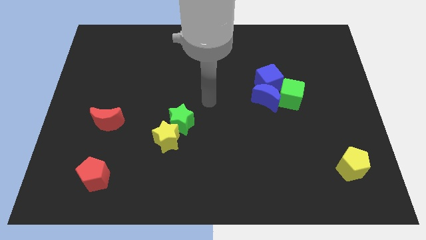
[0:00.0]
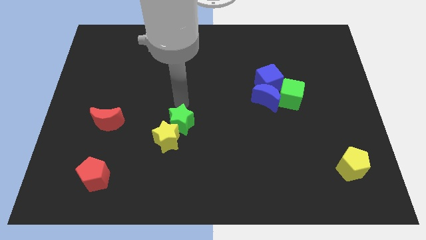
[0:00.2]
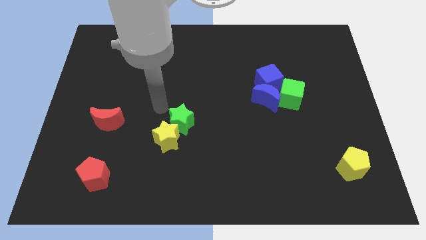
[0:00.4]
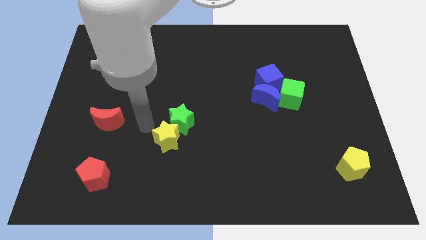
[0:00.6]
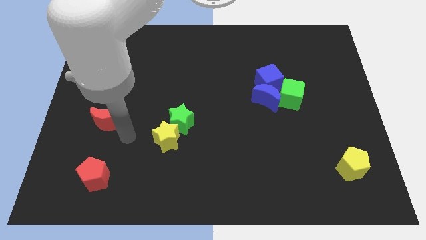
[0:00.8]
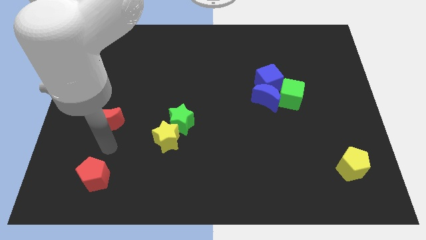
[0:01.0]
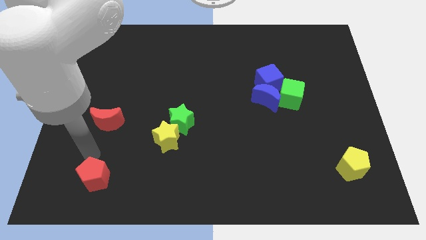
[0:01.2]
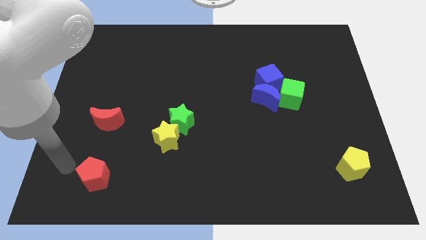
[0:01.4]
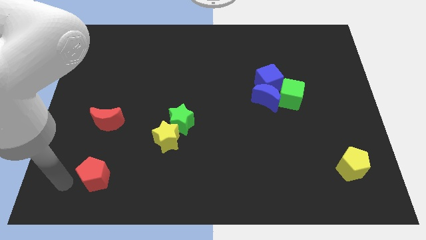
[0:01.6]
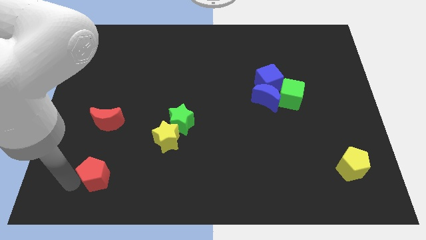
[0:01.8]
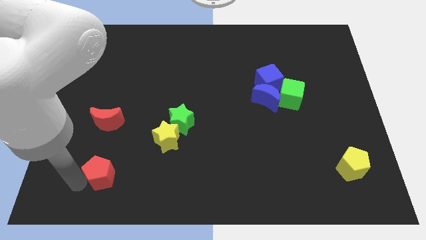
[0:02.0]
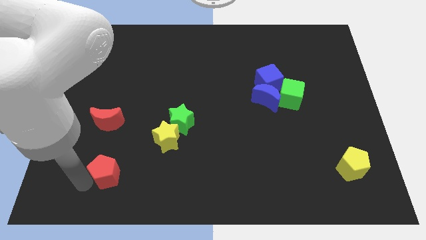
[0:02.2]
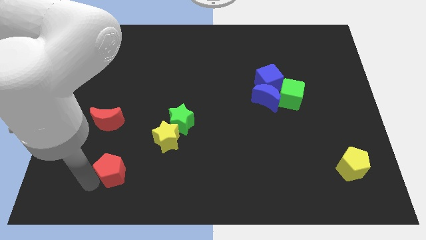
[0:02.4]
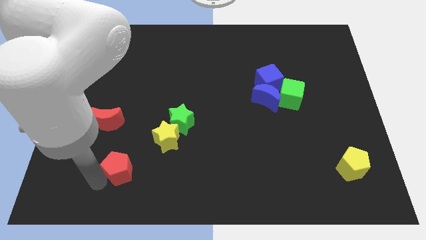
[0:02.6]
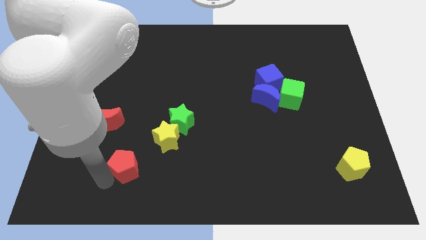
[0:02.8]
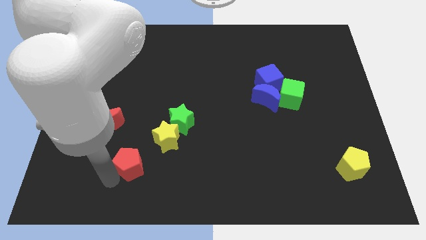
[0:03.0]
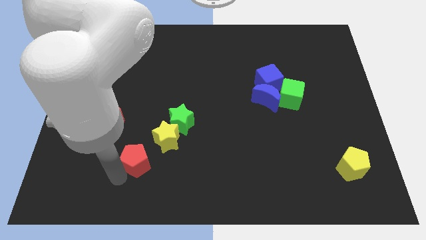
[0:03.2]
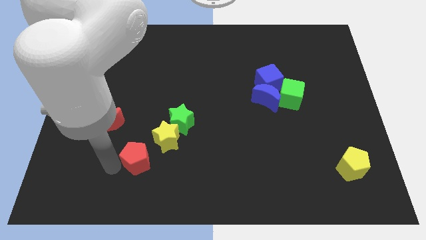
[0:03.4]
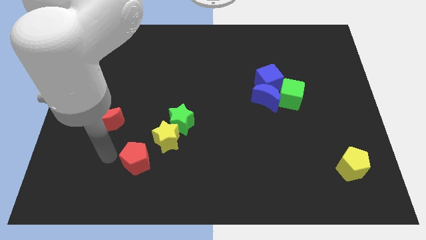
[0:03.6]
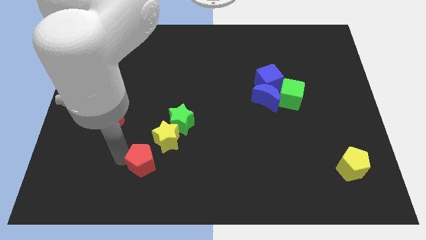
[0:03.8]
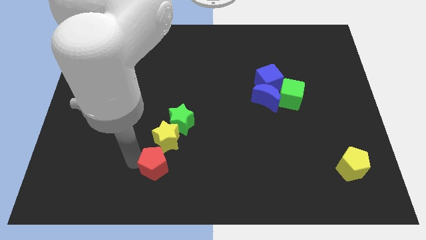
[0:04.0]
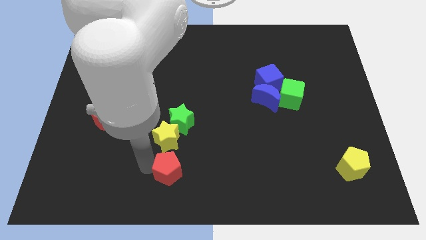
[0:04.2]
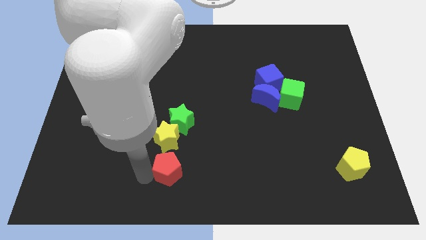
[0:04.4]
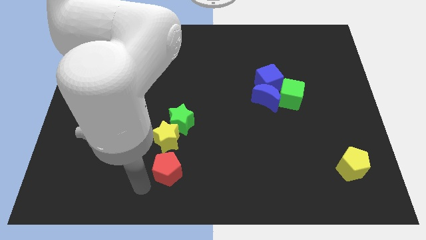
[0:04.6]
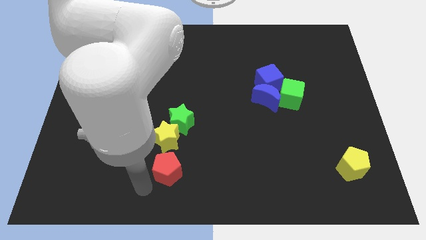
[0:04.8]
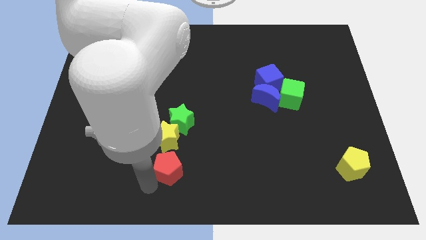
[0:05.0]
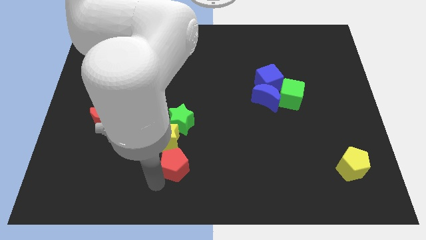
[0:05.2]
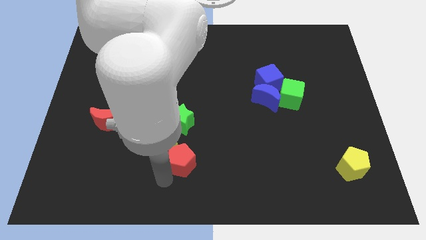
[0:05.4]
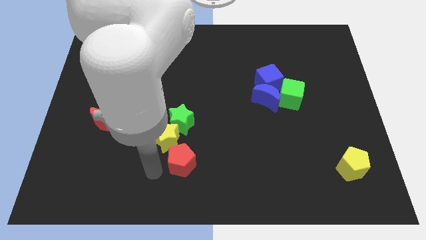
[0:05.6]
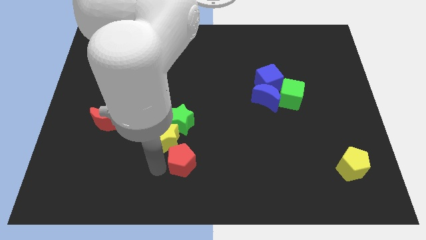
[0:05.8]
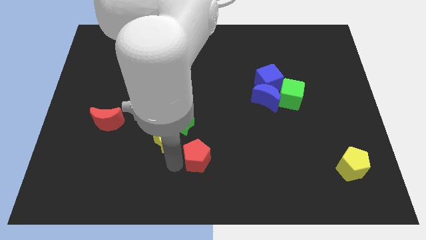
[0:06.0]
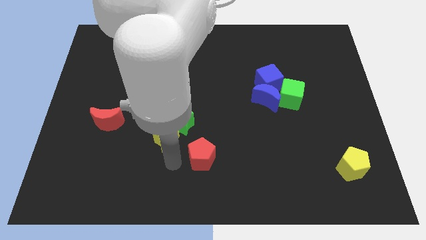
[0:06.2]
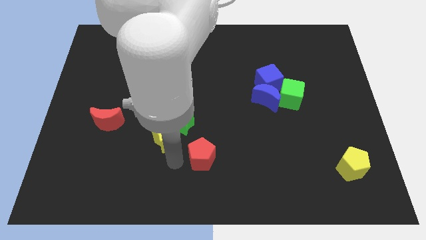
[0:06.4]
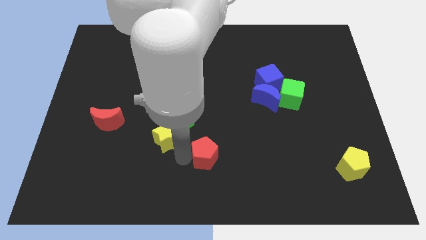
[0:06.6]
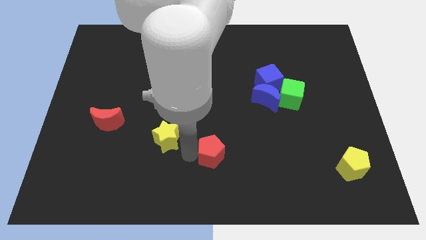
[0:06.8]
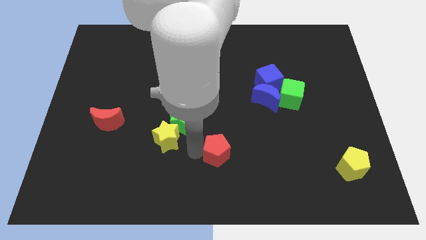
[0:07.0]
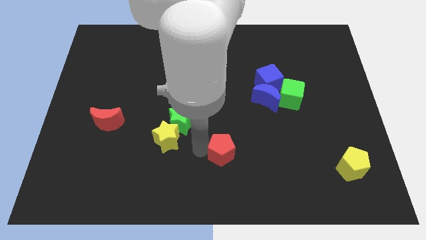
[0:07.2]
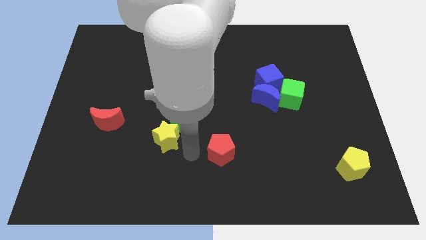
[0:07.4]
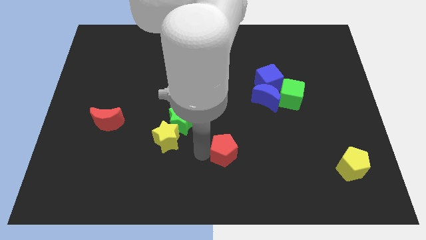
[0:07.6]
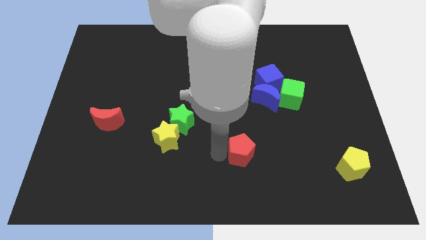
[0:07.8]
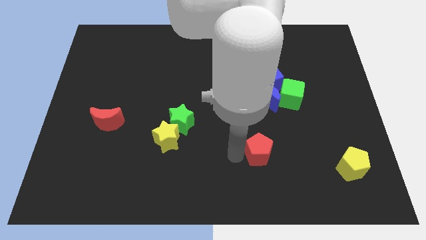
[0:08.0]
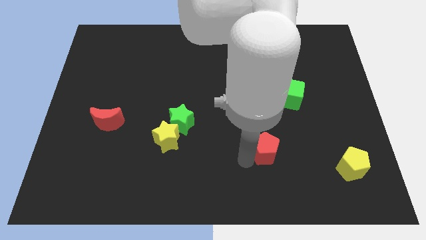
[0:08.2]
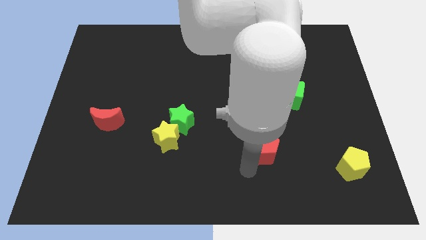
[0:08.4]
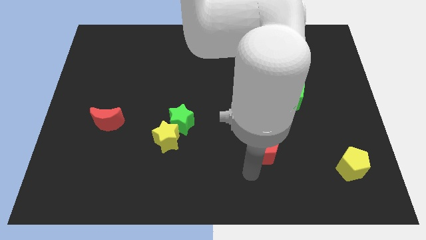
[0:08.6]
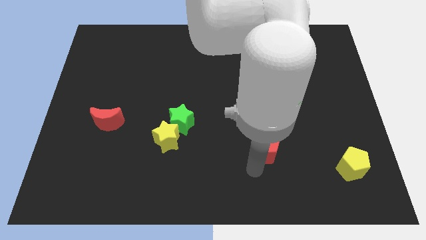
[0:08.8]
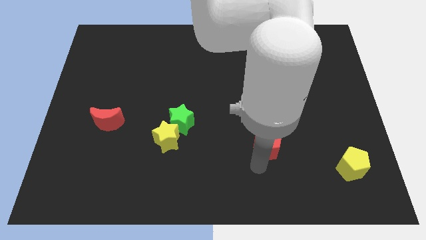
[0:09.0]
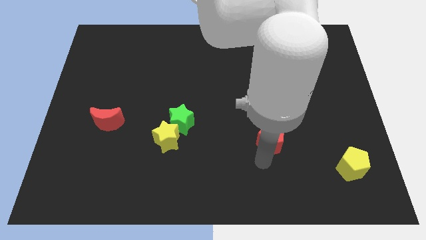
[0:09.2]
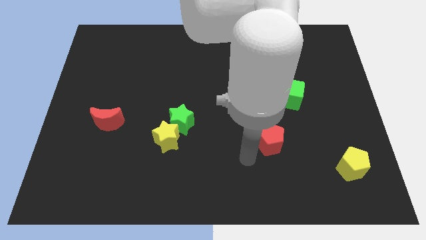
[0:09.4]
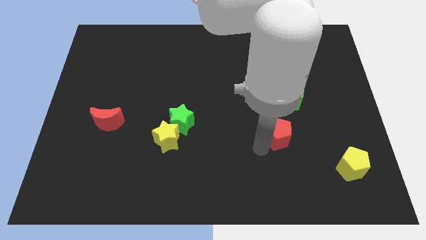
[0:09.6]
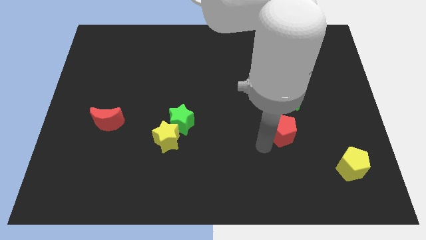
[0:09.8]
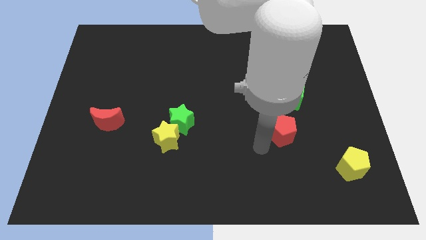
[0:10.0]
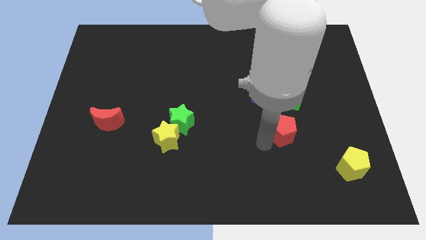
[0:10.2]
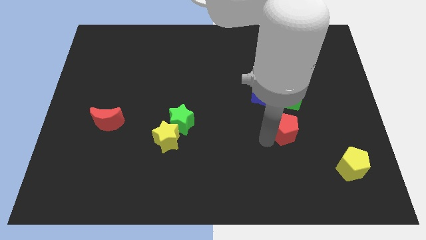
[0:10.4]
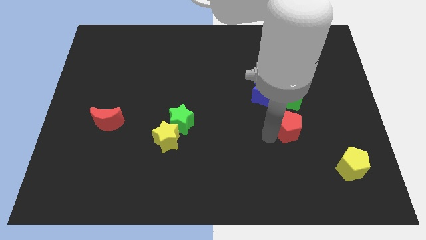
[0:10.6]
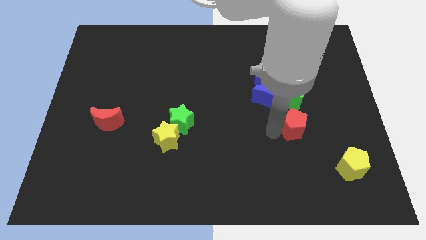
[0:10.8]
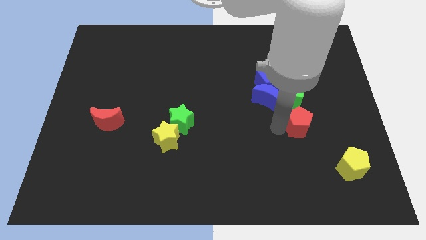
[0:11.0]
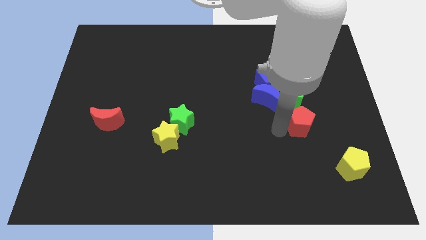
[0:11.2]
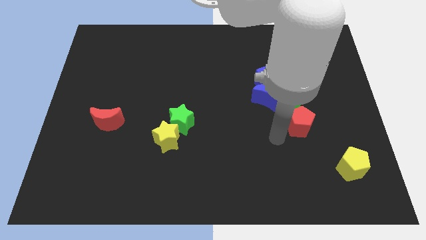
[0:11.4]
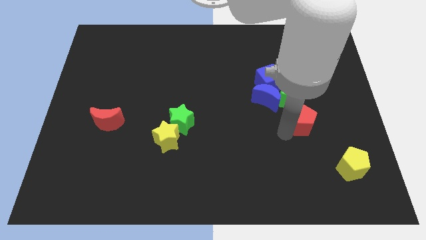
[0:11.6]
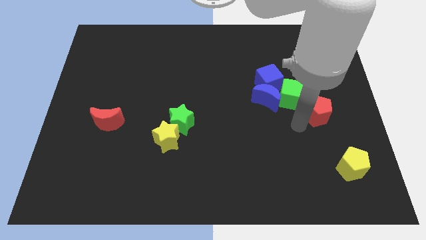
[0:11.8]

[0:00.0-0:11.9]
push the red pentagon to the right side of the green cube

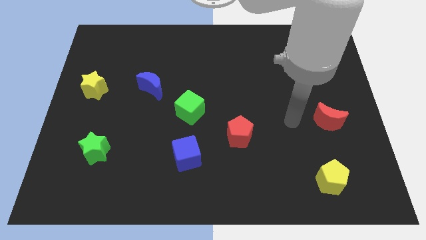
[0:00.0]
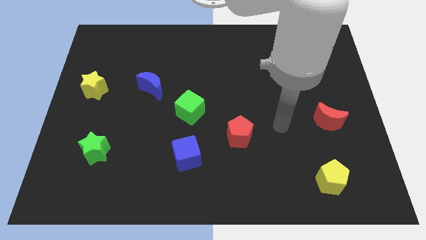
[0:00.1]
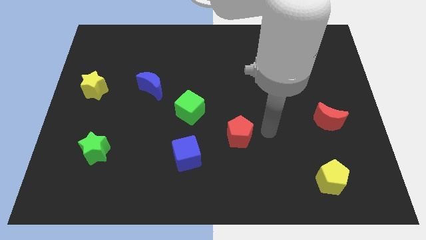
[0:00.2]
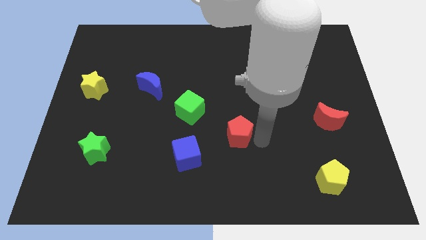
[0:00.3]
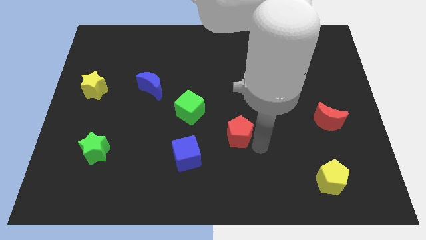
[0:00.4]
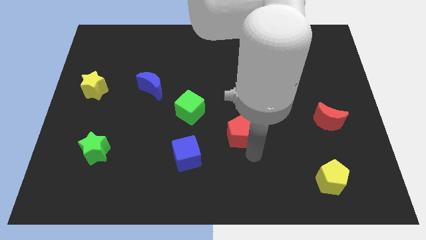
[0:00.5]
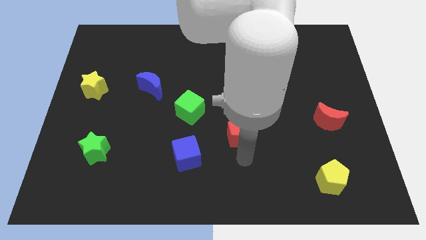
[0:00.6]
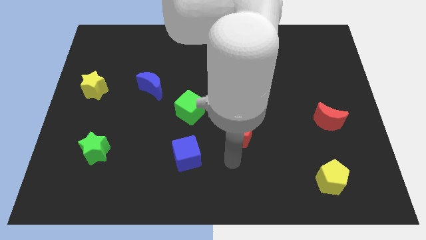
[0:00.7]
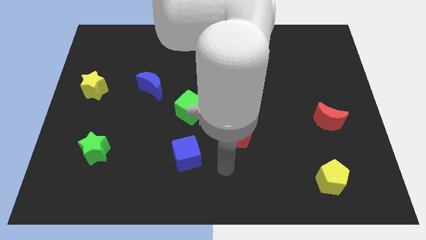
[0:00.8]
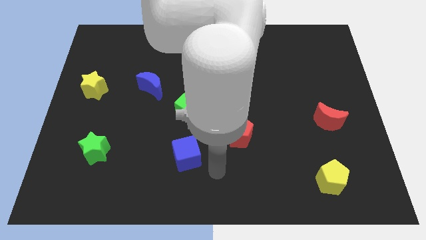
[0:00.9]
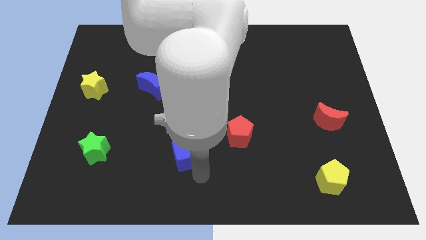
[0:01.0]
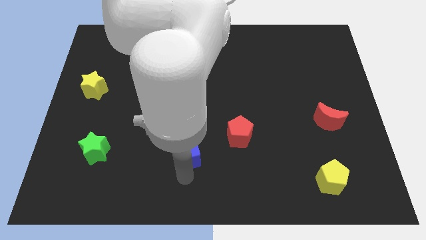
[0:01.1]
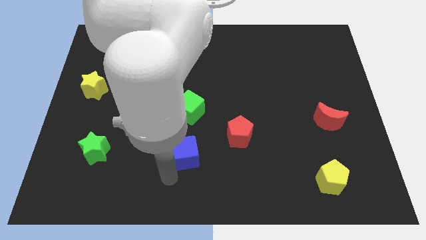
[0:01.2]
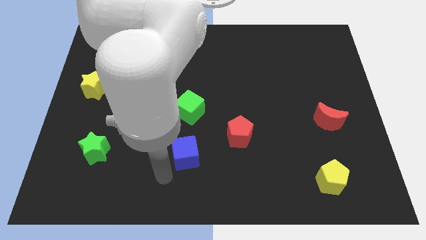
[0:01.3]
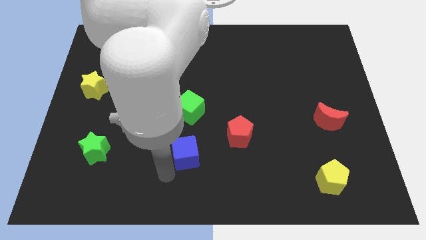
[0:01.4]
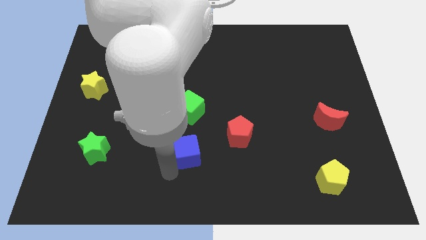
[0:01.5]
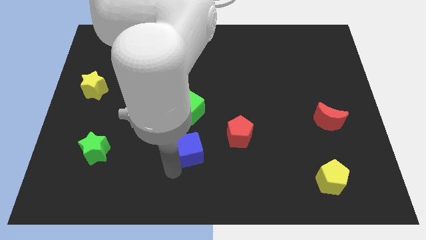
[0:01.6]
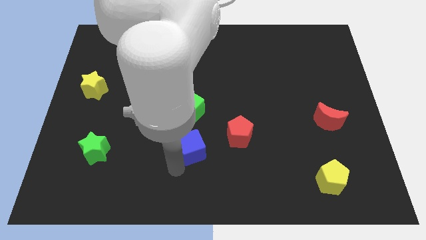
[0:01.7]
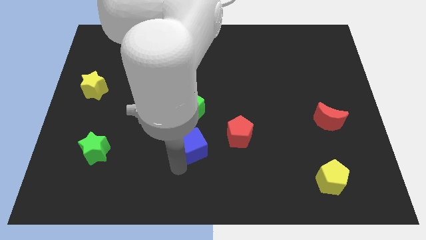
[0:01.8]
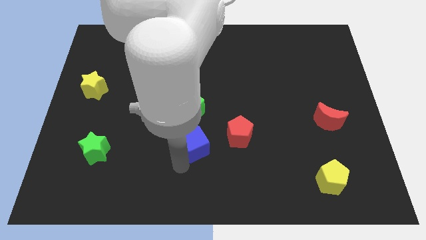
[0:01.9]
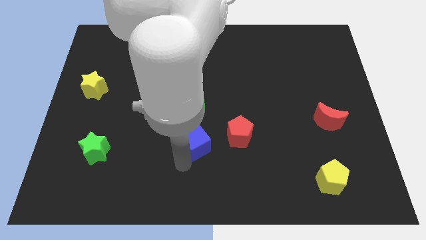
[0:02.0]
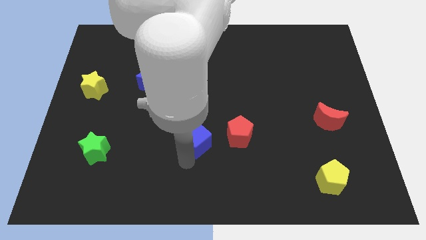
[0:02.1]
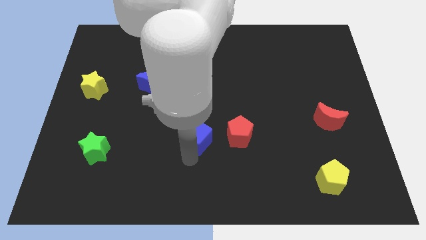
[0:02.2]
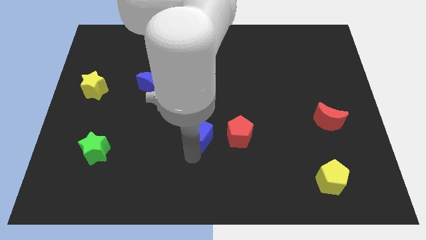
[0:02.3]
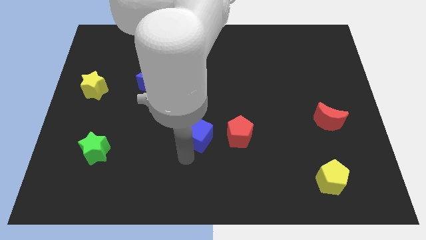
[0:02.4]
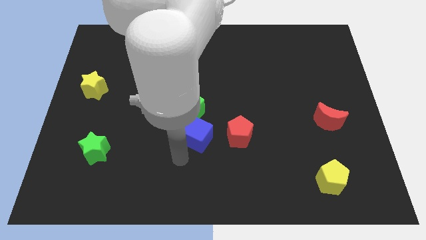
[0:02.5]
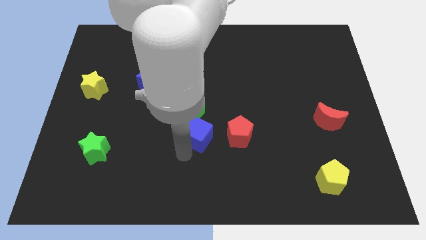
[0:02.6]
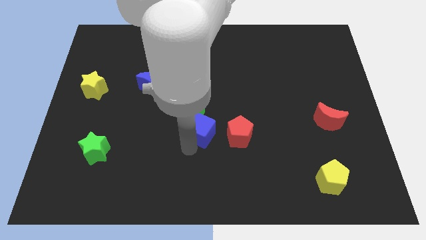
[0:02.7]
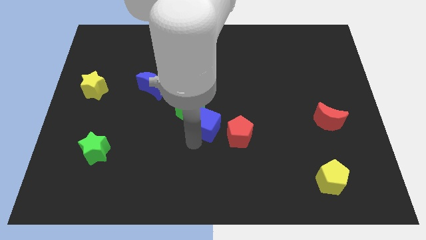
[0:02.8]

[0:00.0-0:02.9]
slide the blue cube to the top left side of the red pentagon
